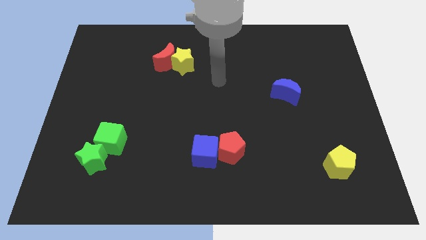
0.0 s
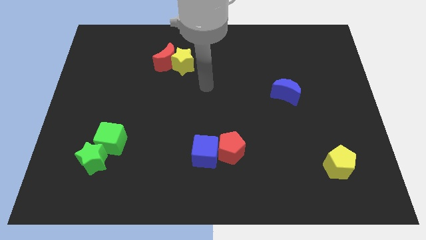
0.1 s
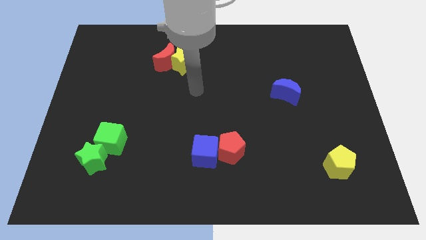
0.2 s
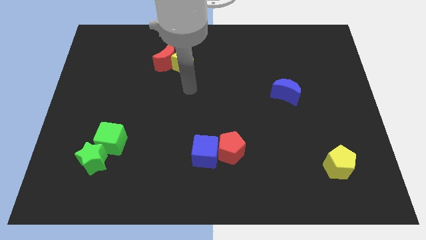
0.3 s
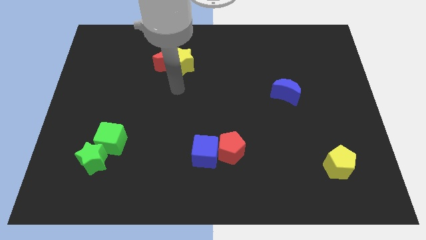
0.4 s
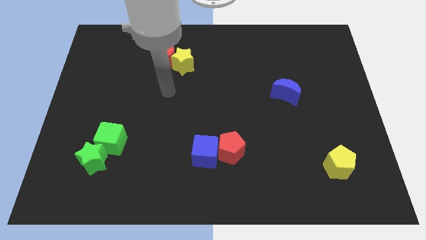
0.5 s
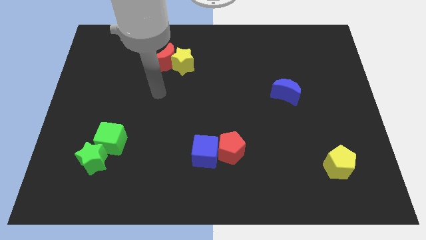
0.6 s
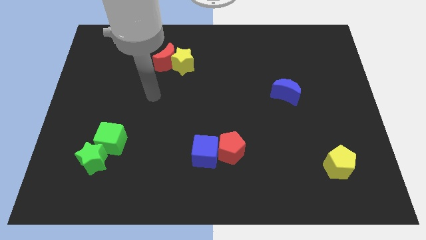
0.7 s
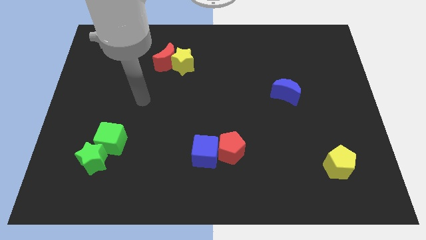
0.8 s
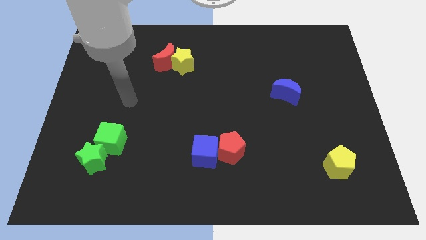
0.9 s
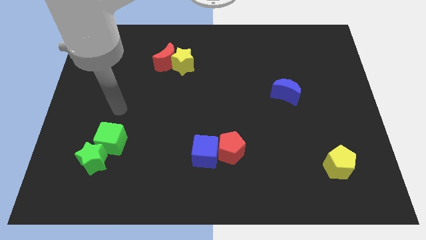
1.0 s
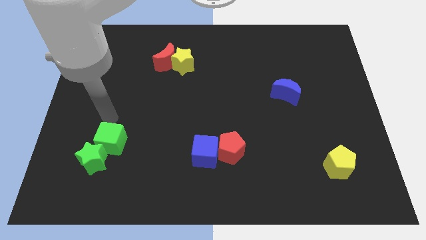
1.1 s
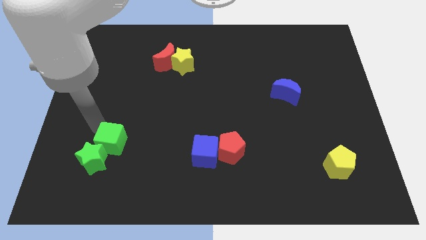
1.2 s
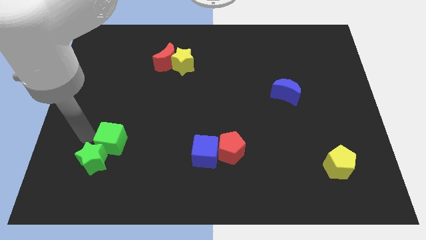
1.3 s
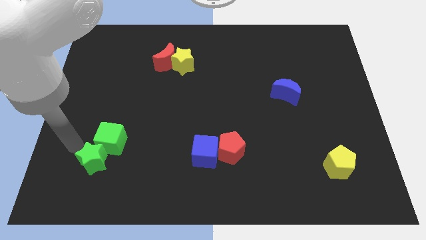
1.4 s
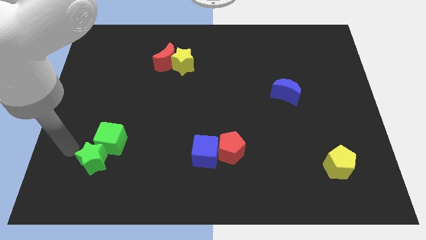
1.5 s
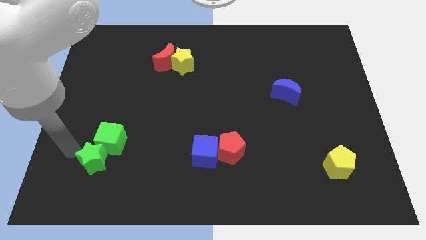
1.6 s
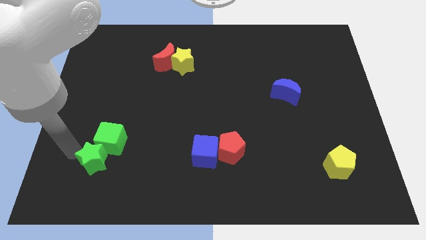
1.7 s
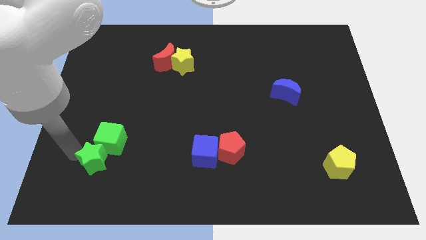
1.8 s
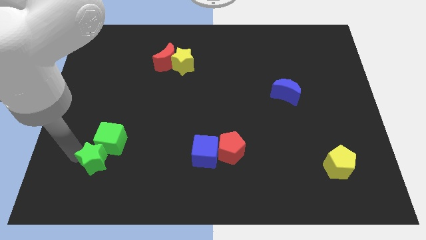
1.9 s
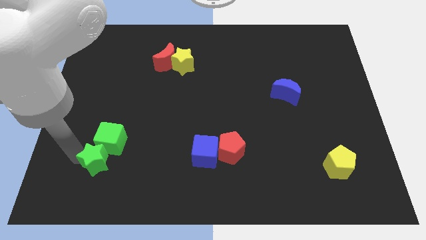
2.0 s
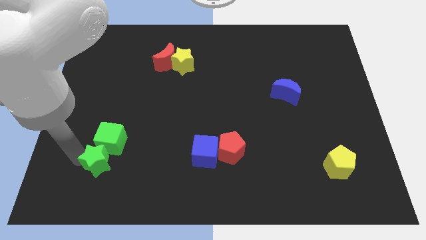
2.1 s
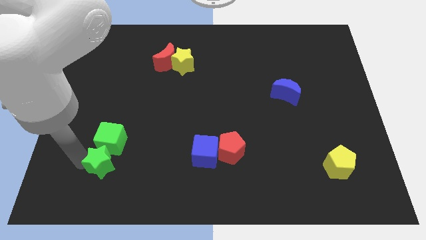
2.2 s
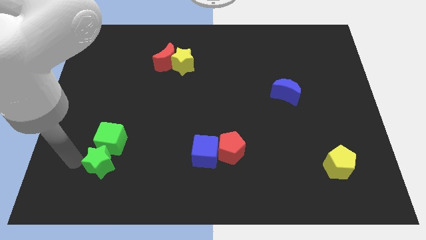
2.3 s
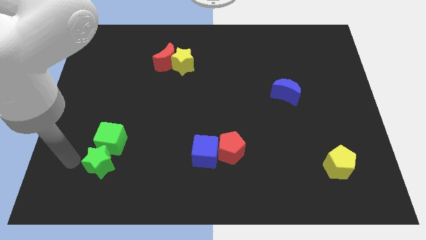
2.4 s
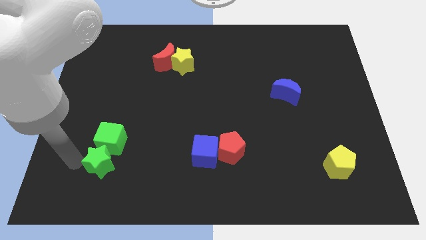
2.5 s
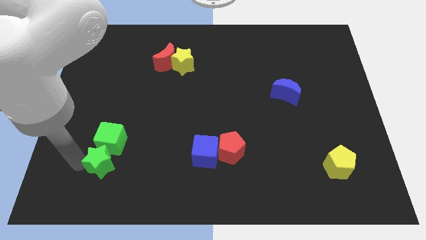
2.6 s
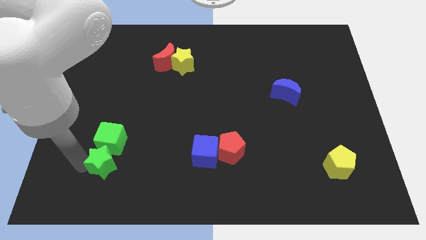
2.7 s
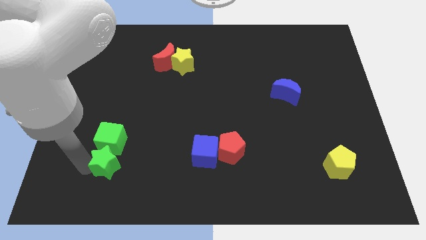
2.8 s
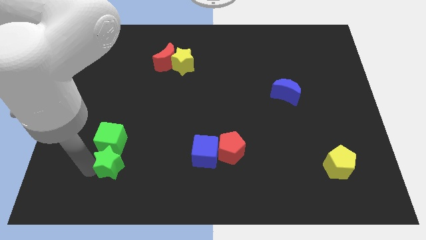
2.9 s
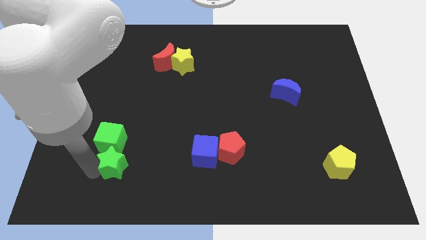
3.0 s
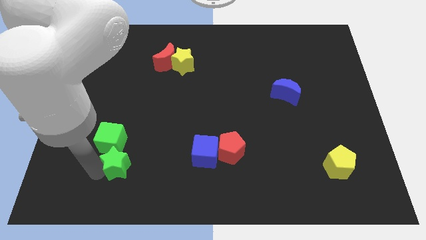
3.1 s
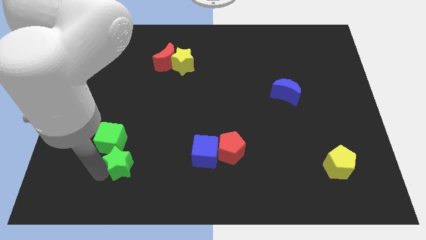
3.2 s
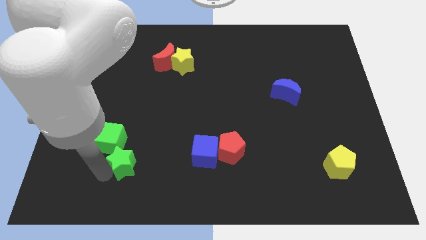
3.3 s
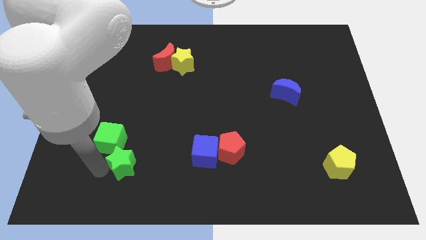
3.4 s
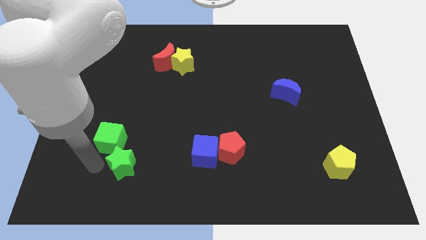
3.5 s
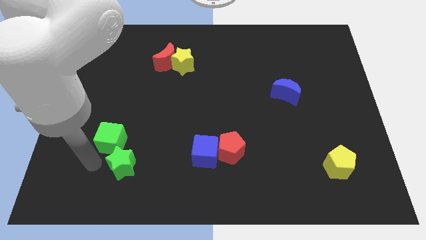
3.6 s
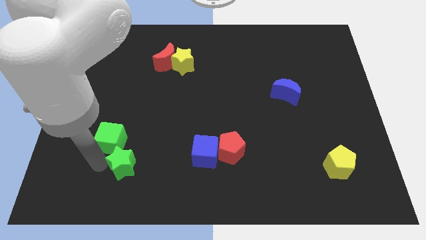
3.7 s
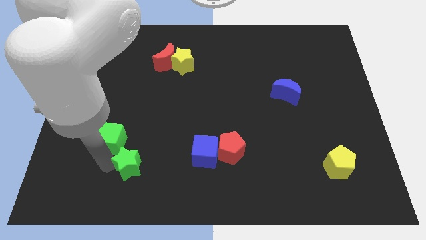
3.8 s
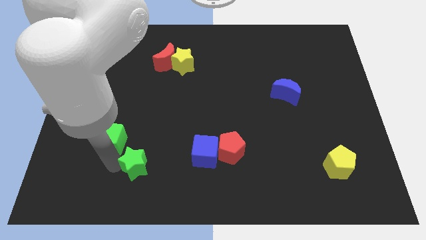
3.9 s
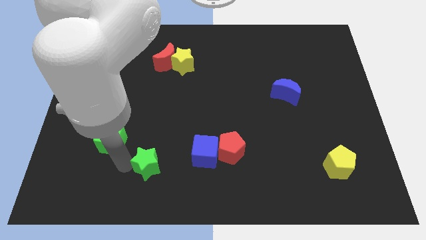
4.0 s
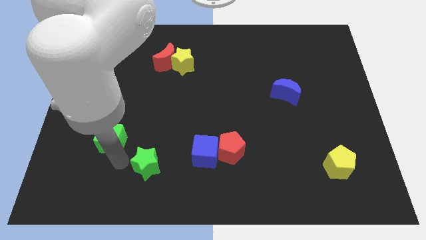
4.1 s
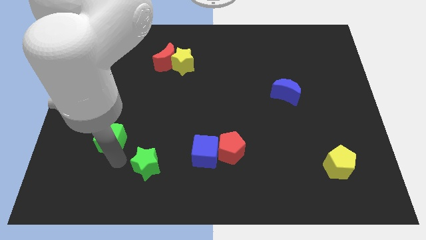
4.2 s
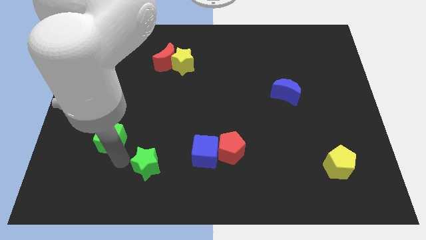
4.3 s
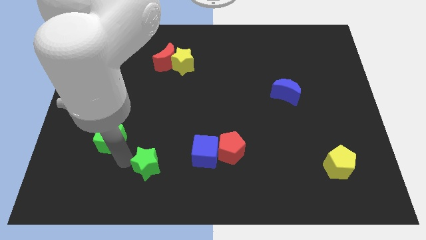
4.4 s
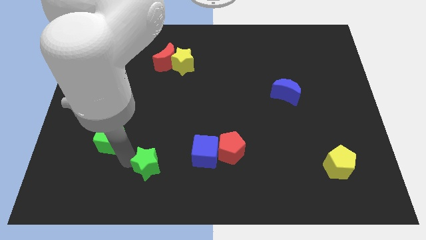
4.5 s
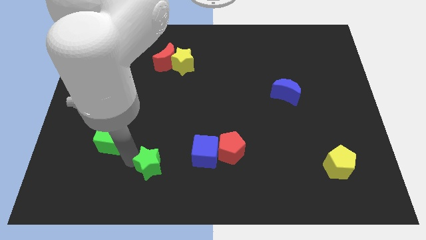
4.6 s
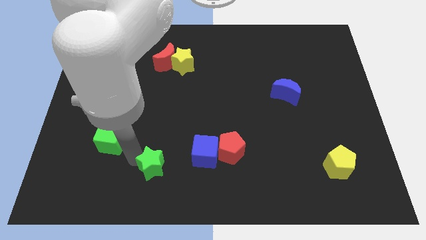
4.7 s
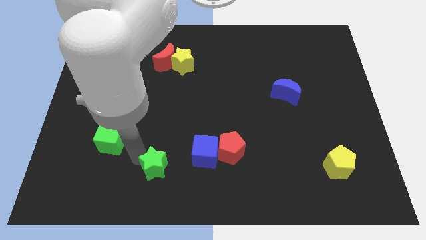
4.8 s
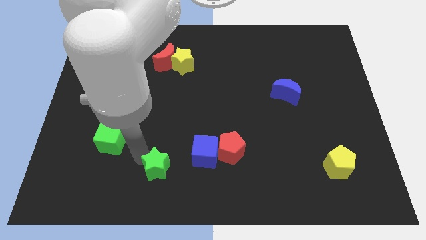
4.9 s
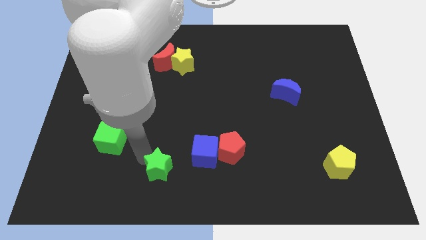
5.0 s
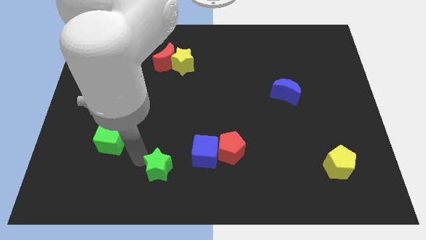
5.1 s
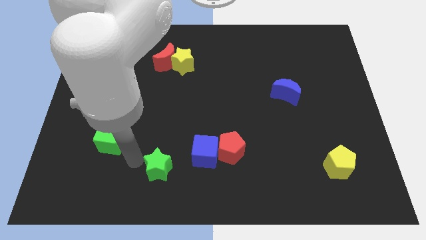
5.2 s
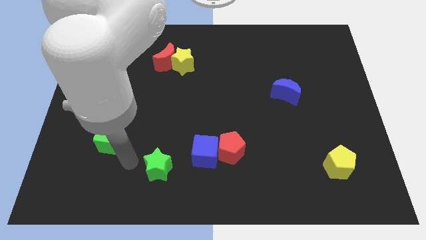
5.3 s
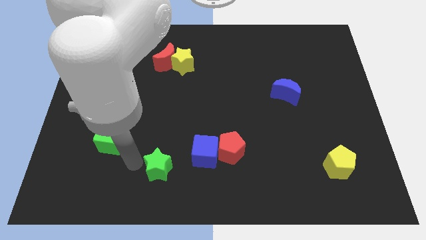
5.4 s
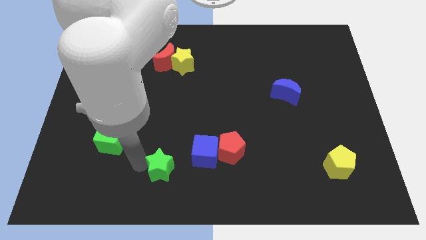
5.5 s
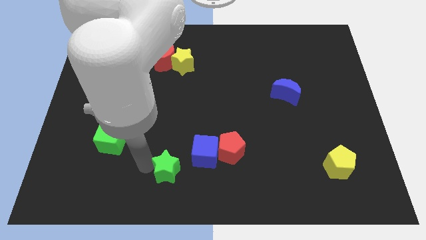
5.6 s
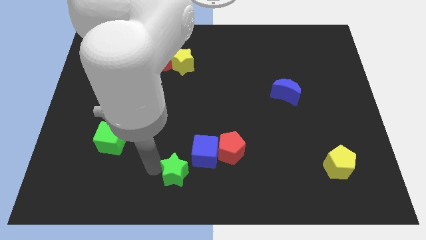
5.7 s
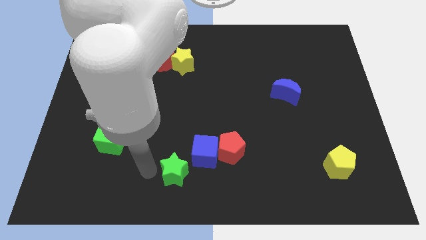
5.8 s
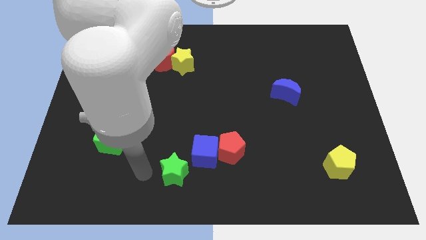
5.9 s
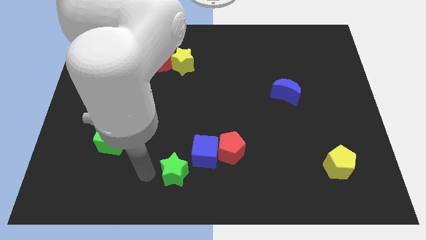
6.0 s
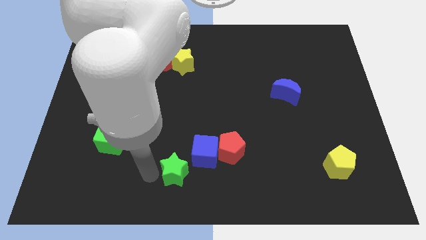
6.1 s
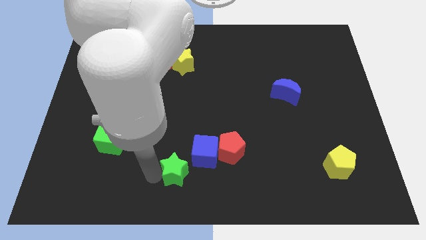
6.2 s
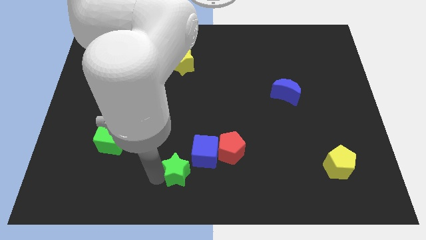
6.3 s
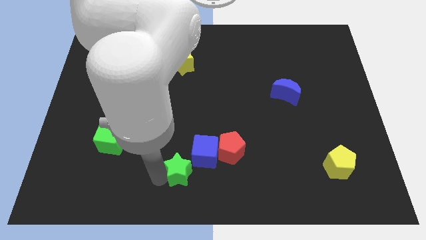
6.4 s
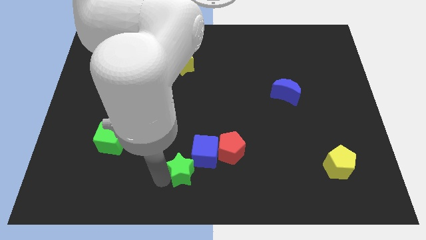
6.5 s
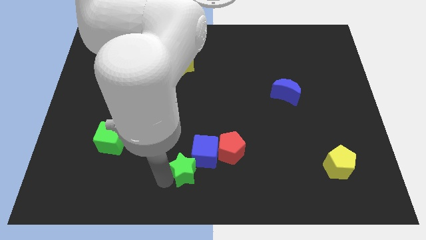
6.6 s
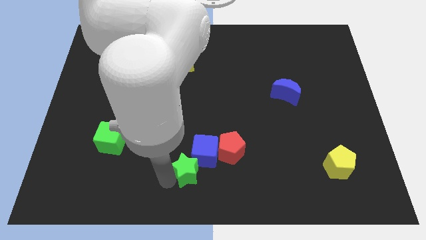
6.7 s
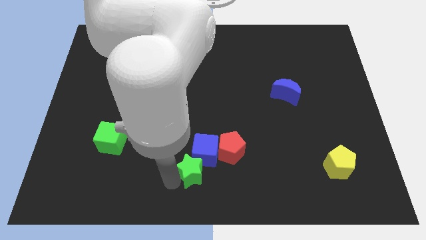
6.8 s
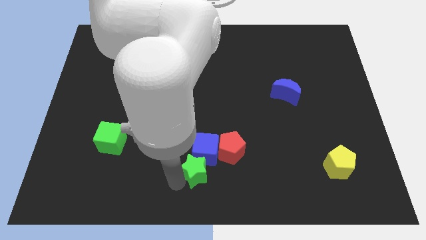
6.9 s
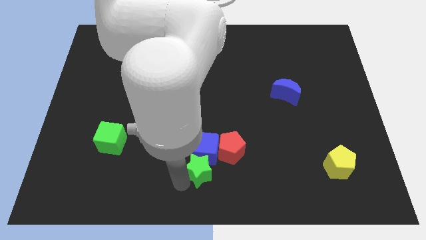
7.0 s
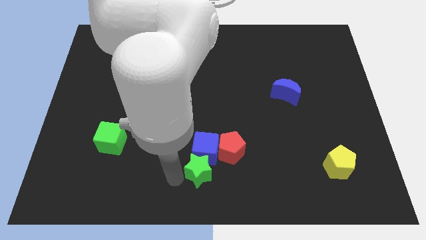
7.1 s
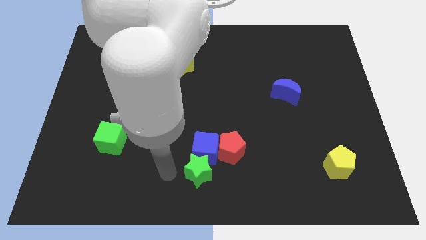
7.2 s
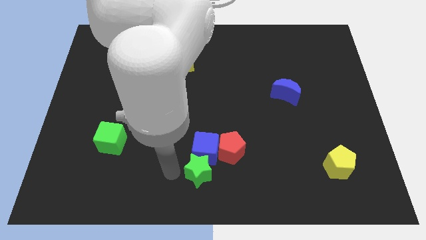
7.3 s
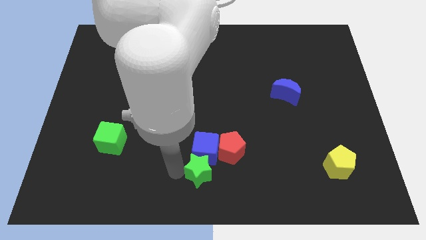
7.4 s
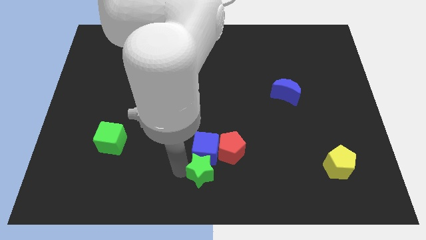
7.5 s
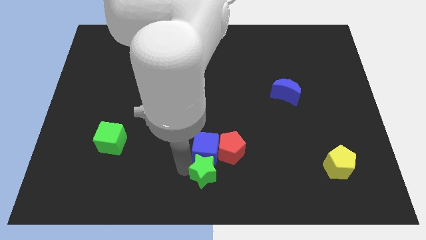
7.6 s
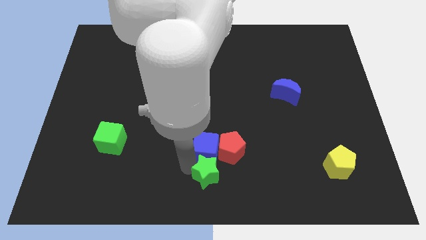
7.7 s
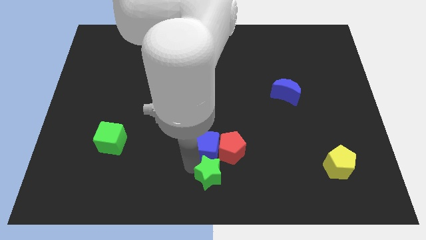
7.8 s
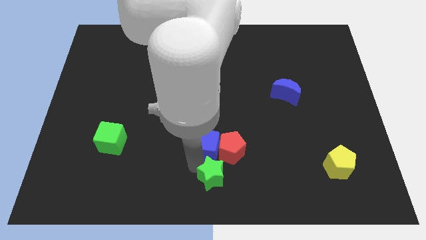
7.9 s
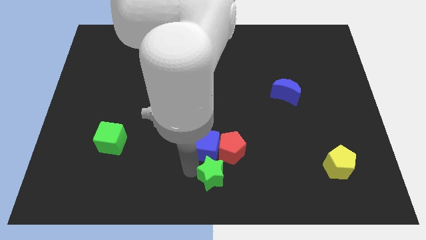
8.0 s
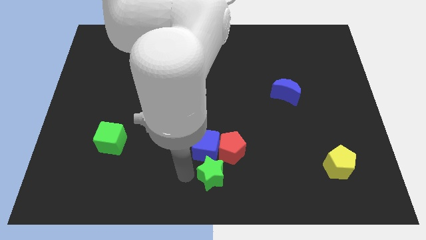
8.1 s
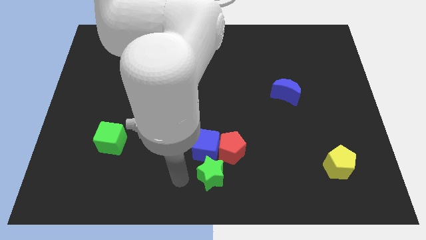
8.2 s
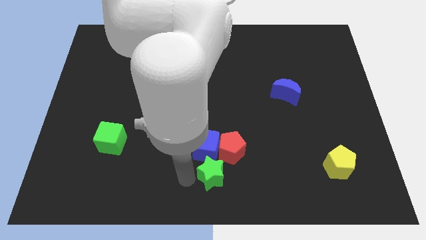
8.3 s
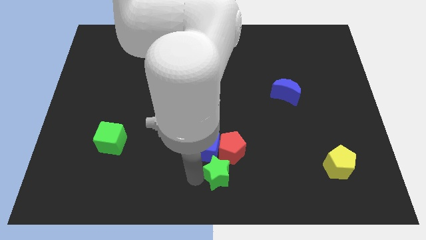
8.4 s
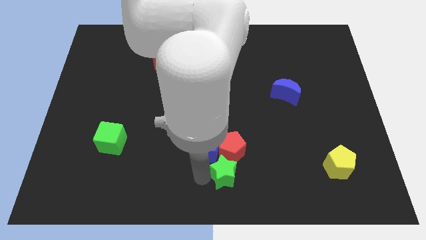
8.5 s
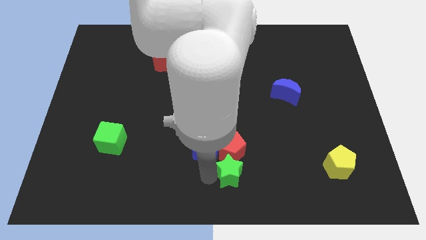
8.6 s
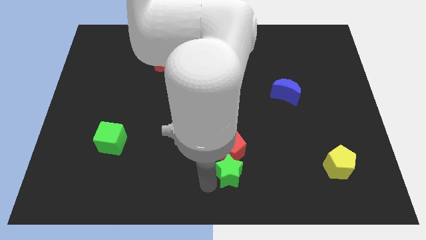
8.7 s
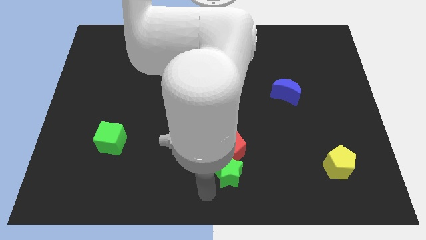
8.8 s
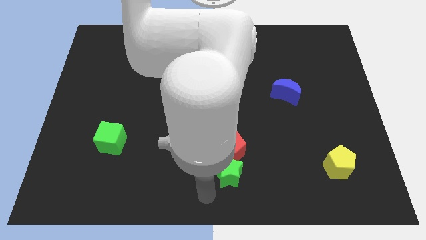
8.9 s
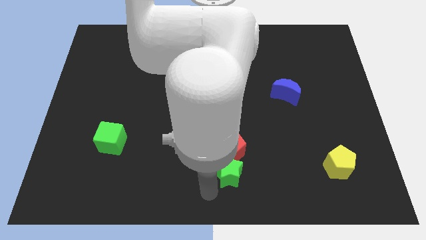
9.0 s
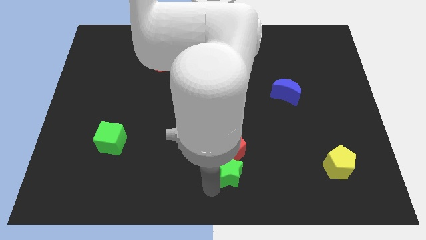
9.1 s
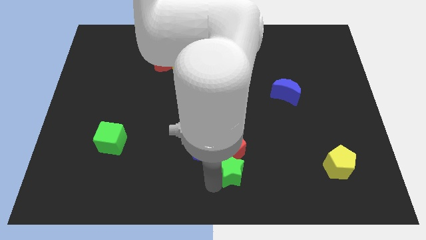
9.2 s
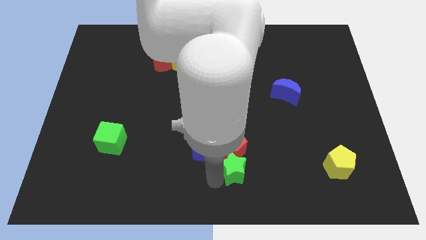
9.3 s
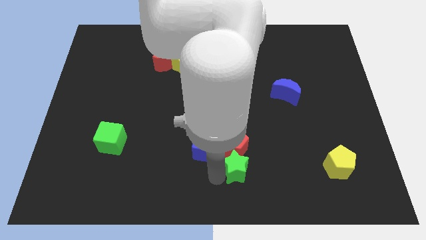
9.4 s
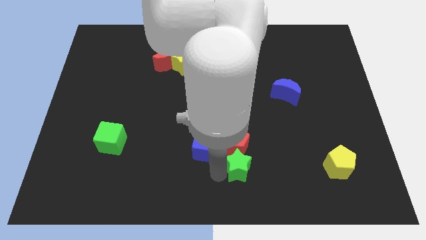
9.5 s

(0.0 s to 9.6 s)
slide the green star right of the blue cube
